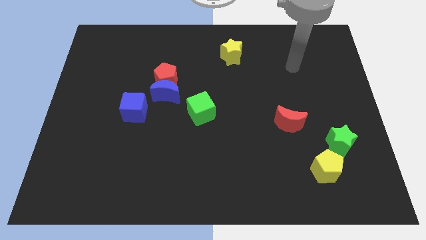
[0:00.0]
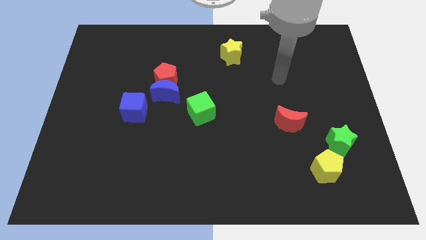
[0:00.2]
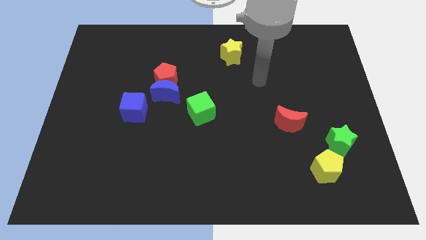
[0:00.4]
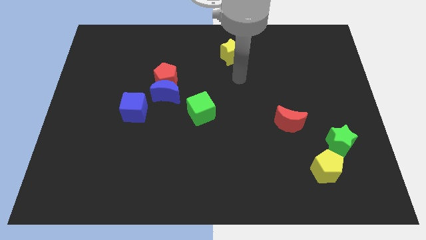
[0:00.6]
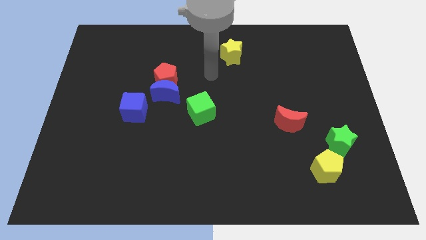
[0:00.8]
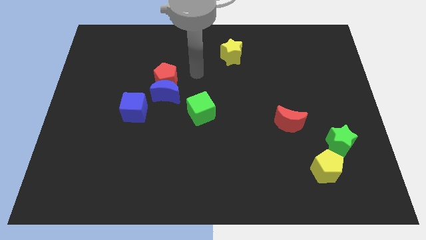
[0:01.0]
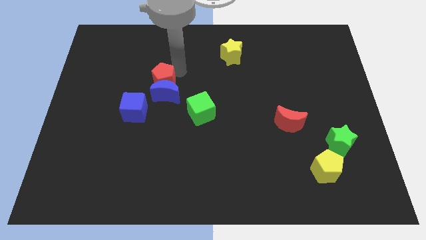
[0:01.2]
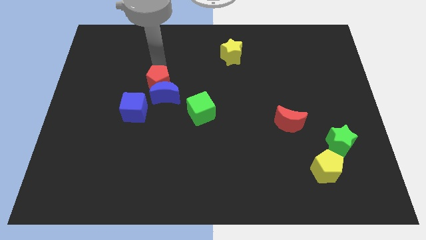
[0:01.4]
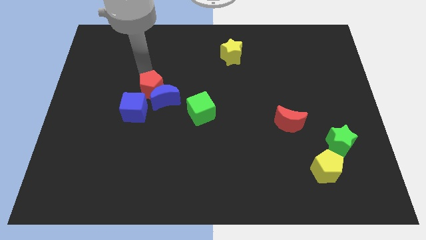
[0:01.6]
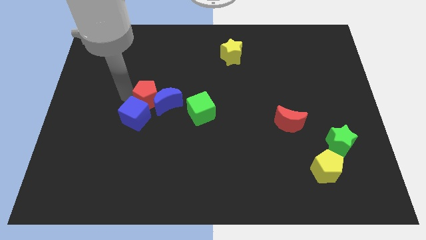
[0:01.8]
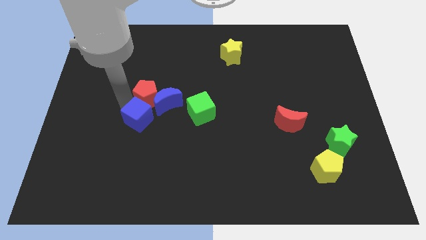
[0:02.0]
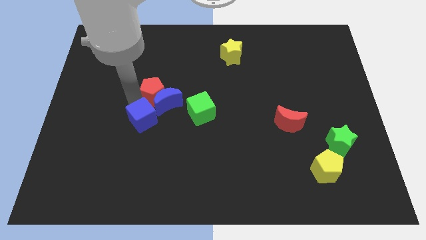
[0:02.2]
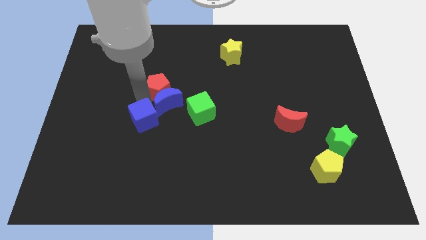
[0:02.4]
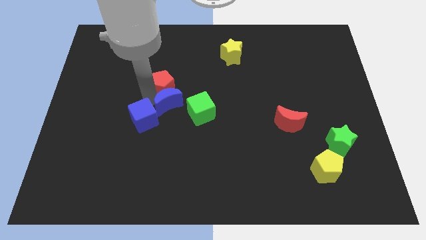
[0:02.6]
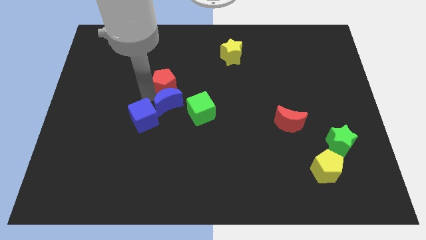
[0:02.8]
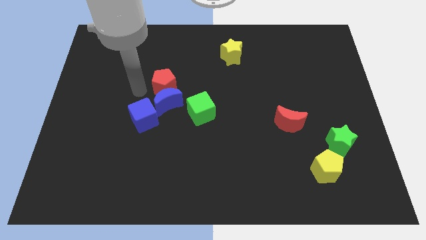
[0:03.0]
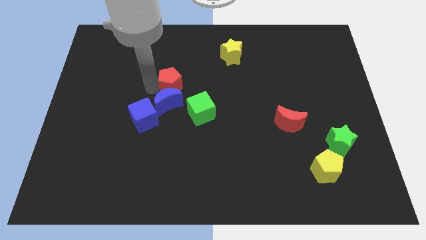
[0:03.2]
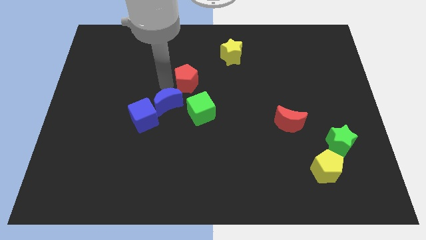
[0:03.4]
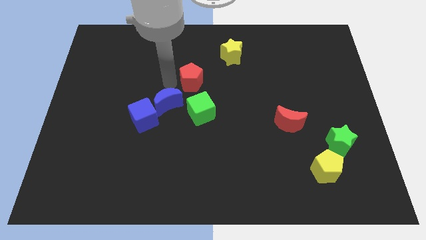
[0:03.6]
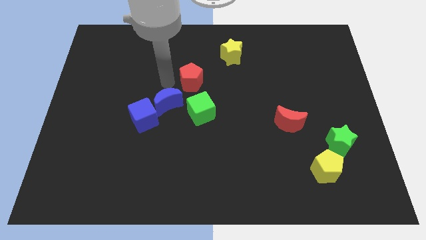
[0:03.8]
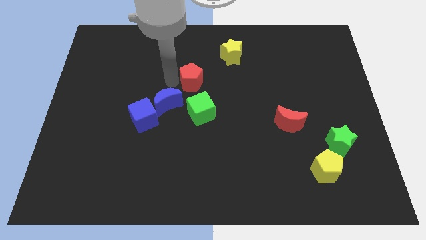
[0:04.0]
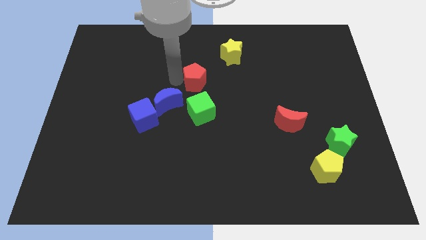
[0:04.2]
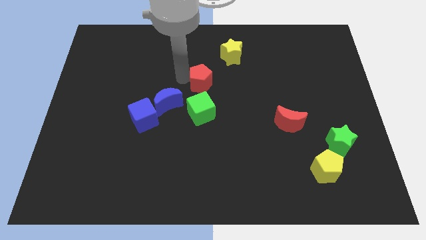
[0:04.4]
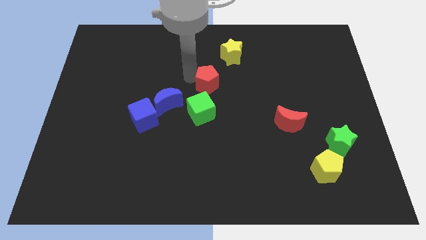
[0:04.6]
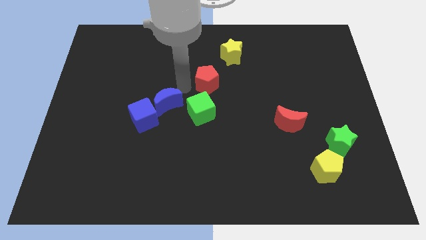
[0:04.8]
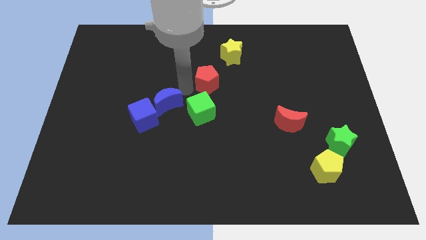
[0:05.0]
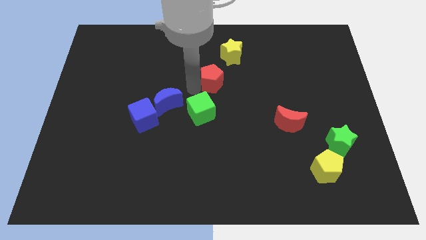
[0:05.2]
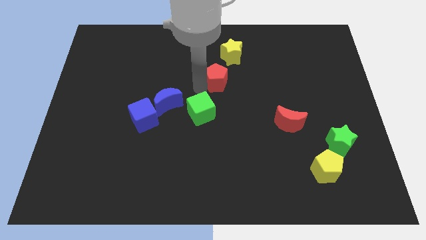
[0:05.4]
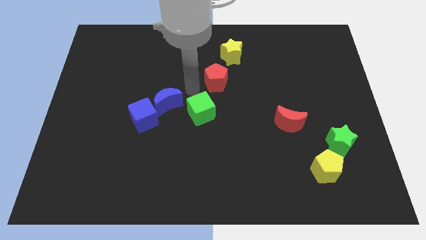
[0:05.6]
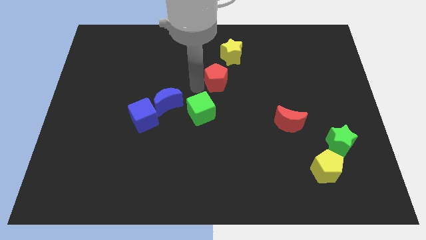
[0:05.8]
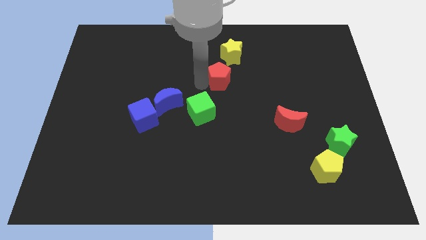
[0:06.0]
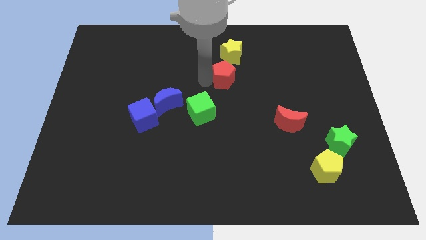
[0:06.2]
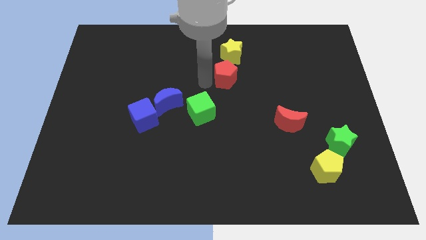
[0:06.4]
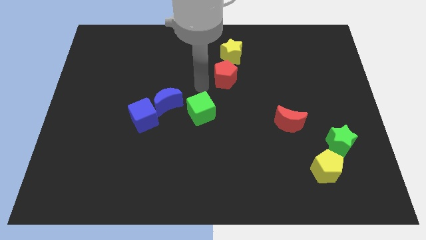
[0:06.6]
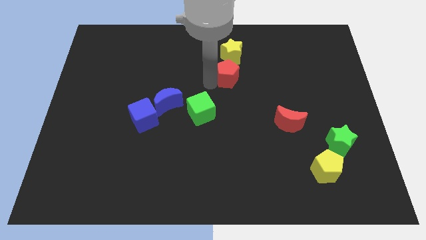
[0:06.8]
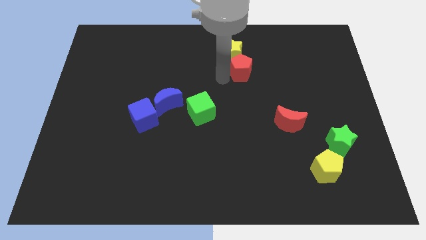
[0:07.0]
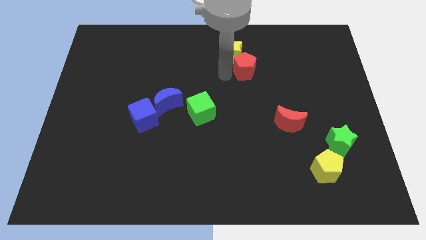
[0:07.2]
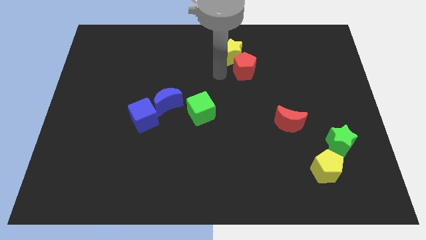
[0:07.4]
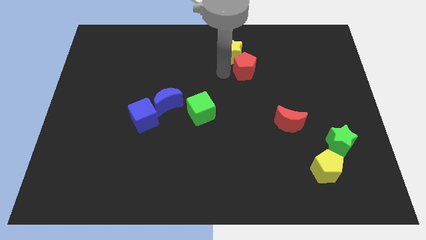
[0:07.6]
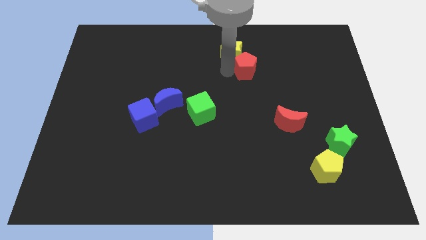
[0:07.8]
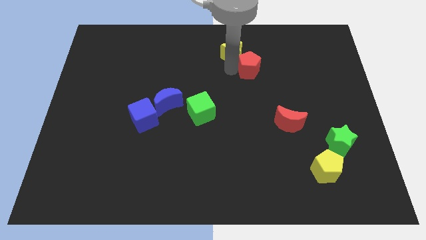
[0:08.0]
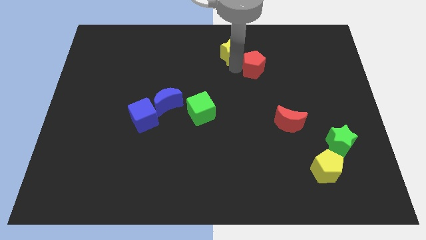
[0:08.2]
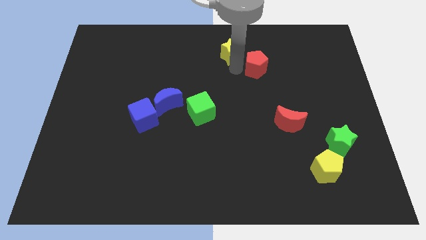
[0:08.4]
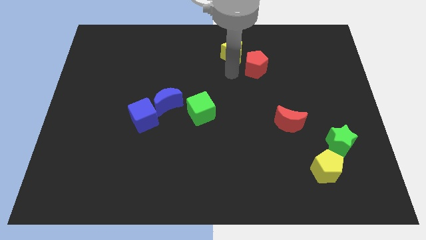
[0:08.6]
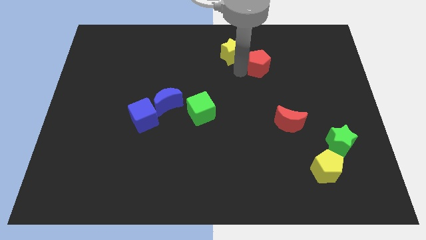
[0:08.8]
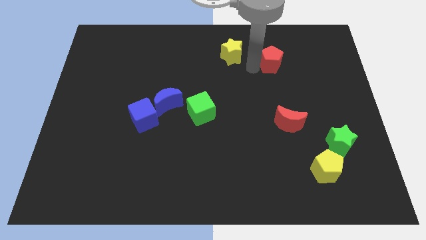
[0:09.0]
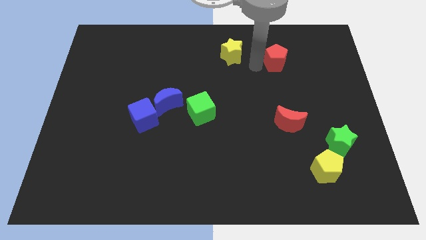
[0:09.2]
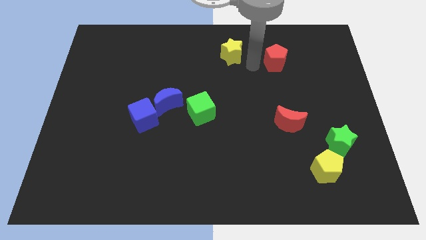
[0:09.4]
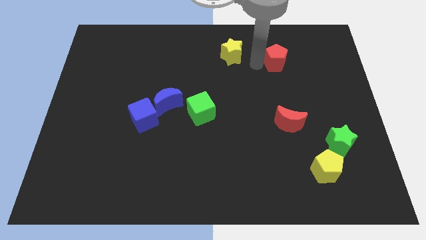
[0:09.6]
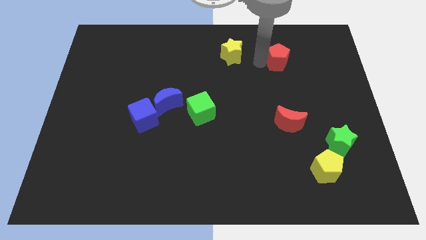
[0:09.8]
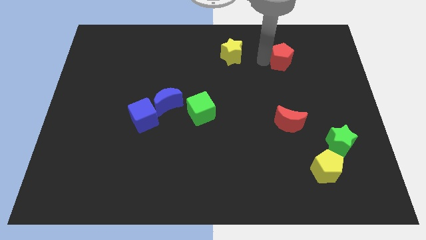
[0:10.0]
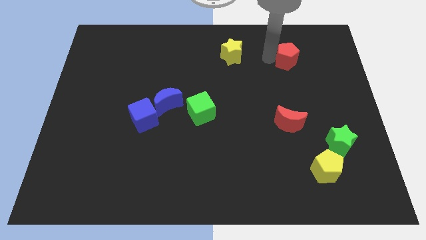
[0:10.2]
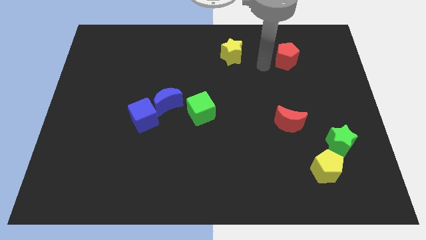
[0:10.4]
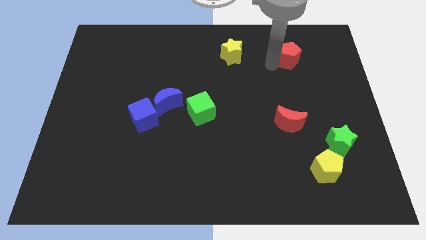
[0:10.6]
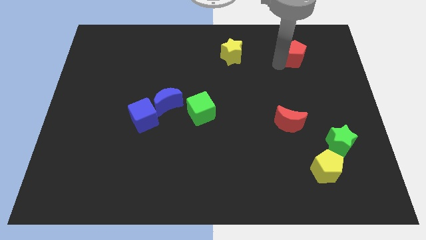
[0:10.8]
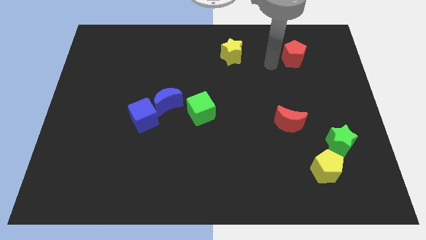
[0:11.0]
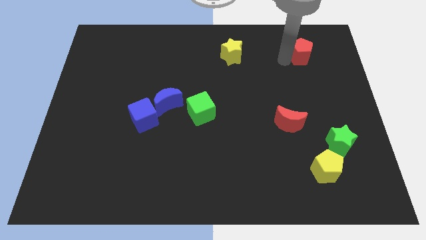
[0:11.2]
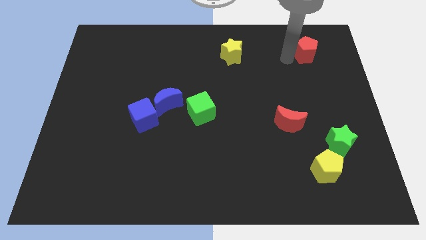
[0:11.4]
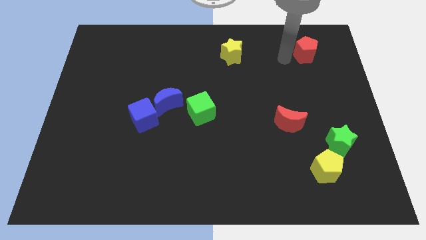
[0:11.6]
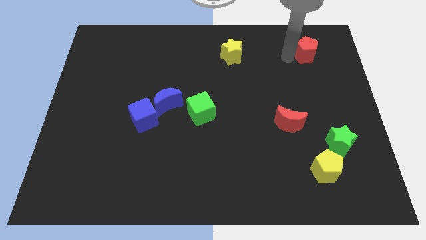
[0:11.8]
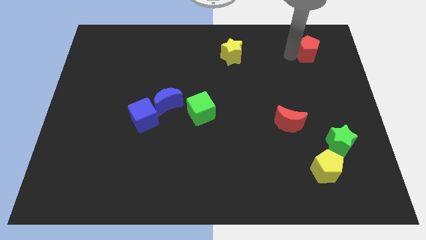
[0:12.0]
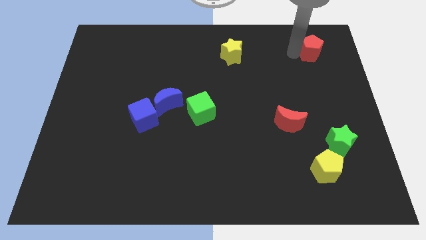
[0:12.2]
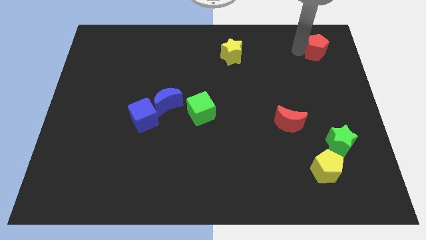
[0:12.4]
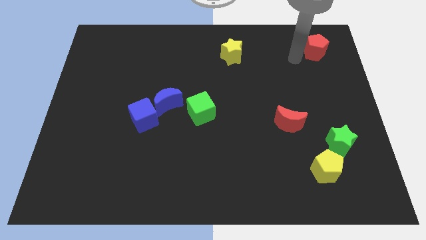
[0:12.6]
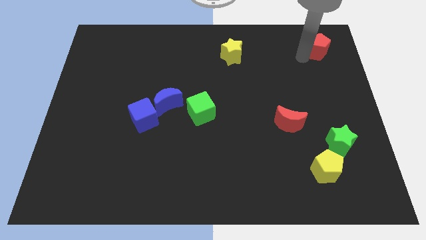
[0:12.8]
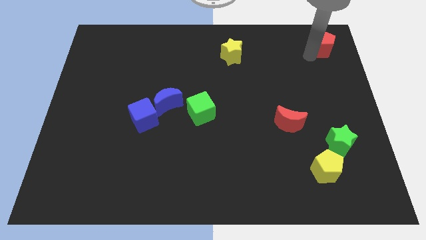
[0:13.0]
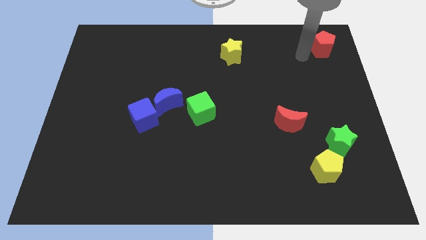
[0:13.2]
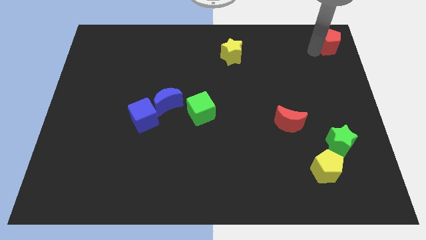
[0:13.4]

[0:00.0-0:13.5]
push the red pentagon to the top right
